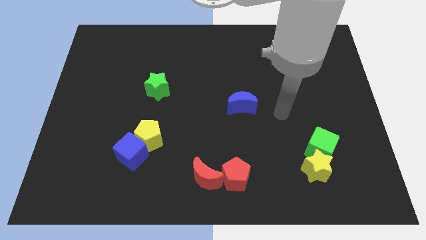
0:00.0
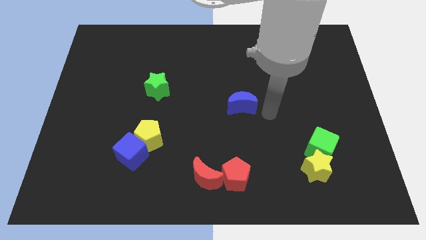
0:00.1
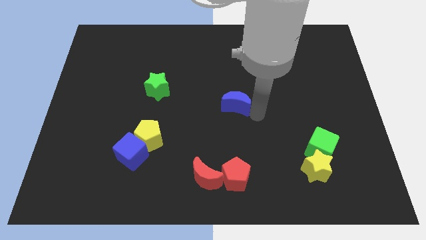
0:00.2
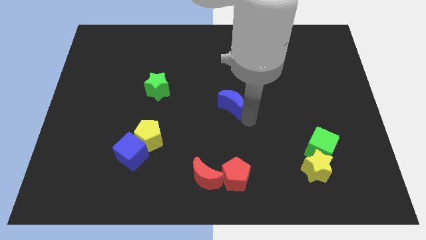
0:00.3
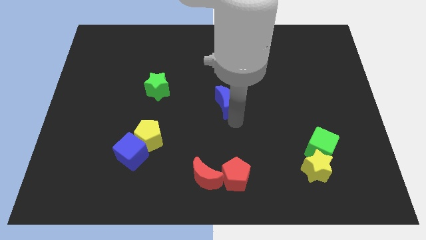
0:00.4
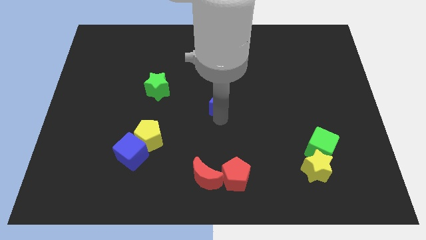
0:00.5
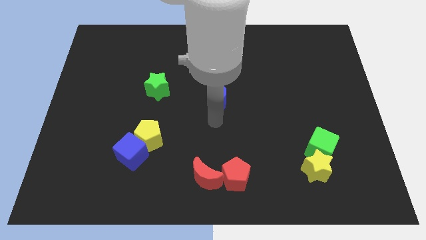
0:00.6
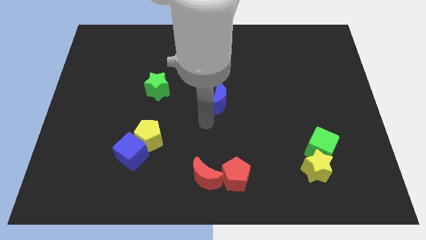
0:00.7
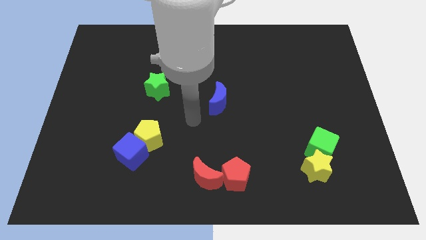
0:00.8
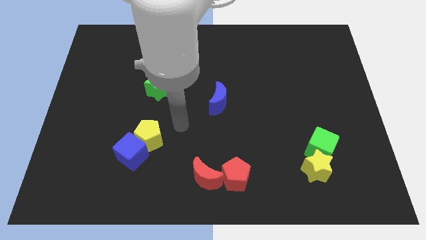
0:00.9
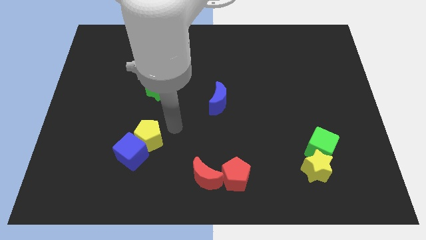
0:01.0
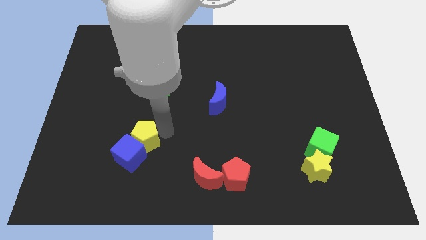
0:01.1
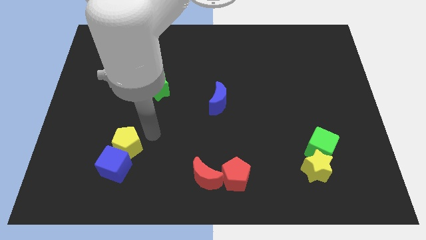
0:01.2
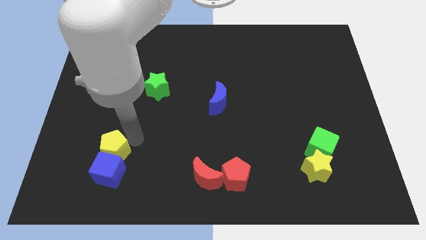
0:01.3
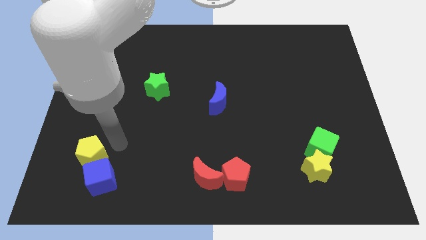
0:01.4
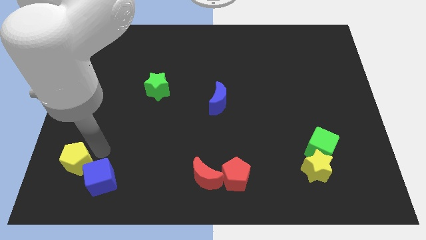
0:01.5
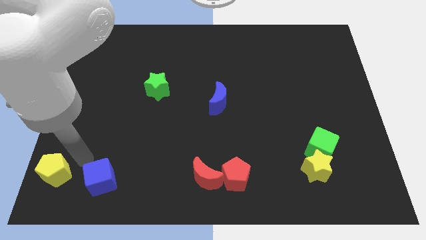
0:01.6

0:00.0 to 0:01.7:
move the blue cube away from the yellow pentagon

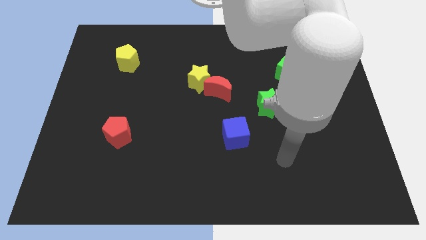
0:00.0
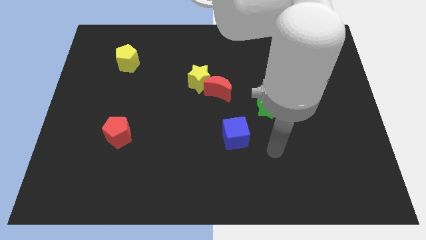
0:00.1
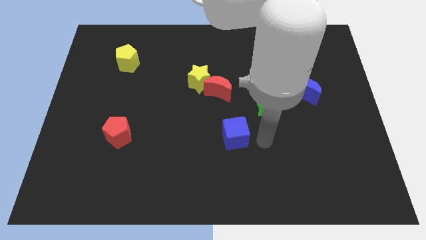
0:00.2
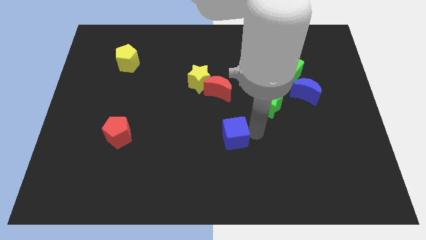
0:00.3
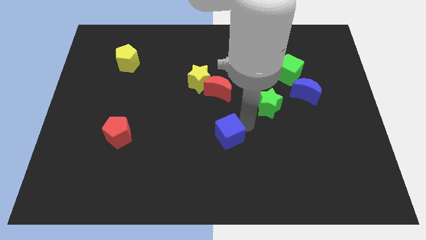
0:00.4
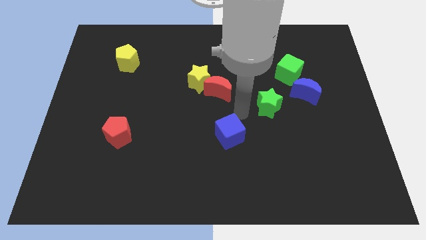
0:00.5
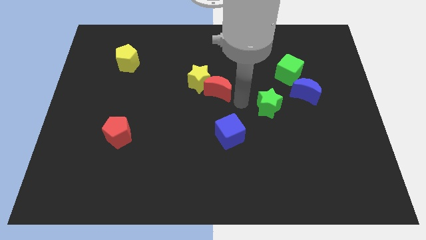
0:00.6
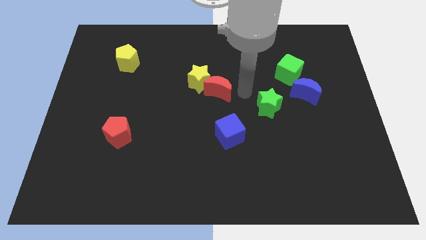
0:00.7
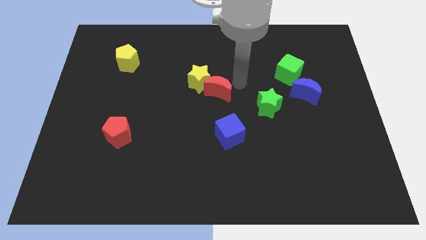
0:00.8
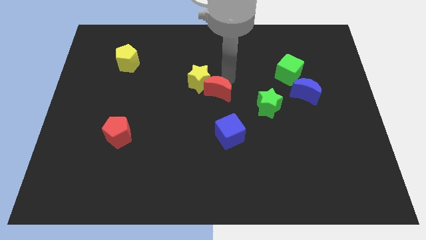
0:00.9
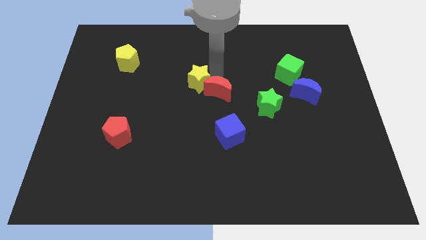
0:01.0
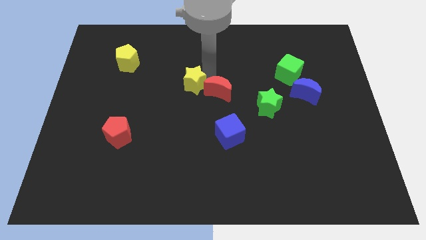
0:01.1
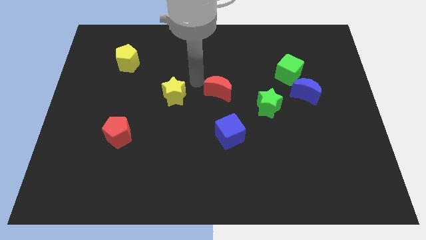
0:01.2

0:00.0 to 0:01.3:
separate the red moon from the yellow star

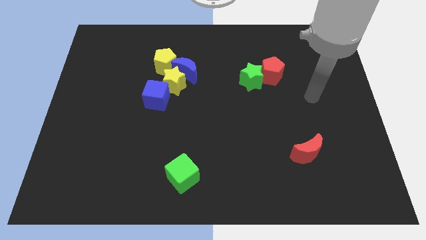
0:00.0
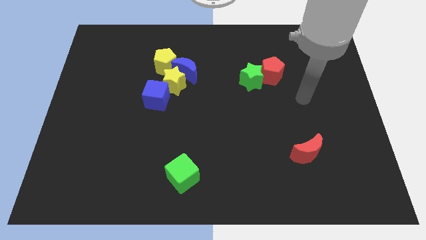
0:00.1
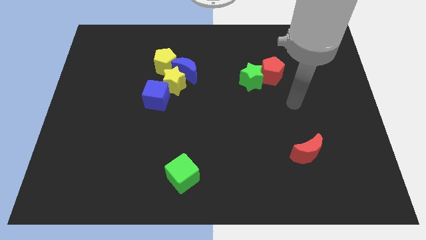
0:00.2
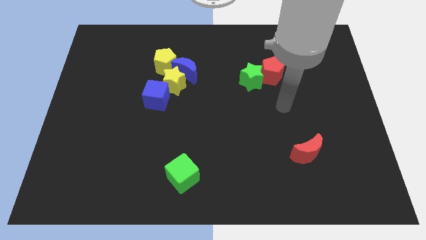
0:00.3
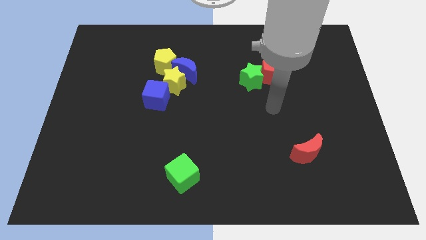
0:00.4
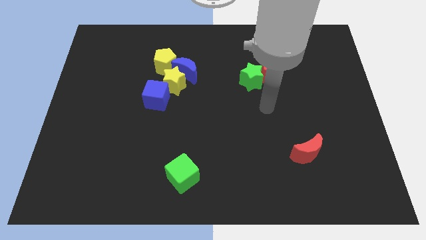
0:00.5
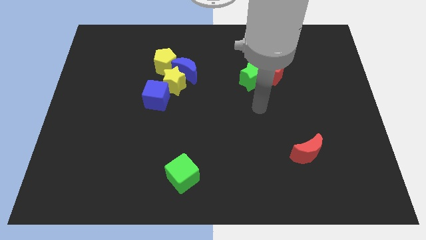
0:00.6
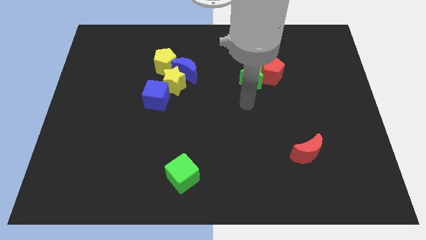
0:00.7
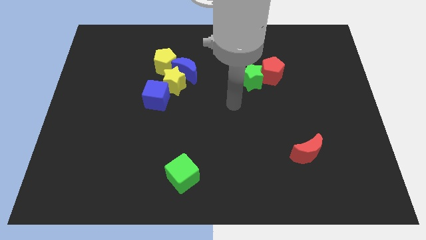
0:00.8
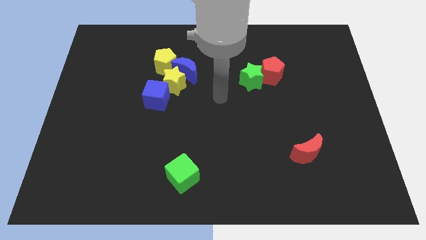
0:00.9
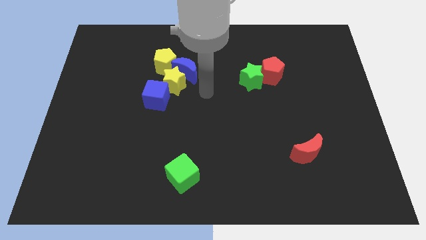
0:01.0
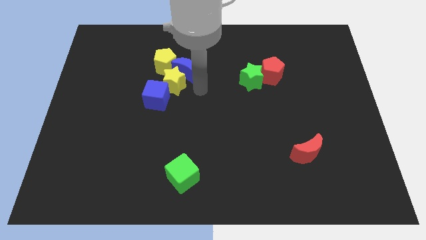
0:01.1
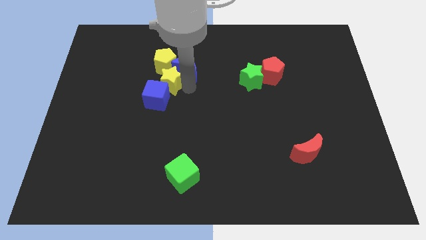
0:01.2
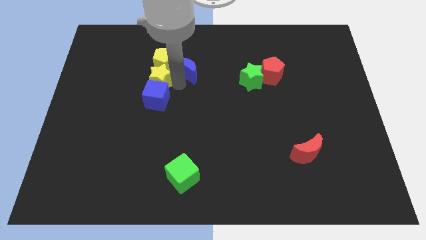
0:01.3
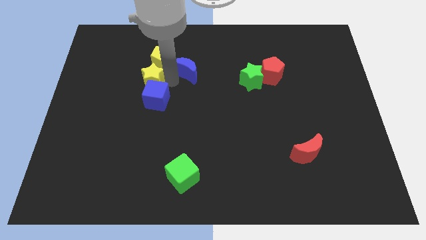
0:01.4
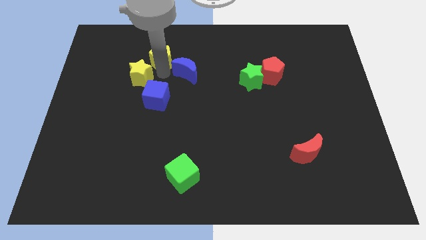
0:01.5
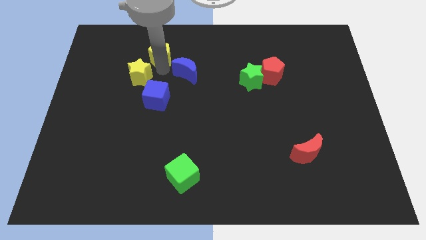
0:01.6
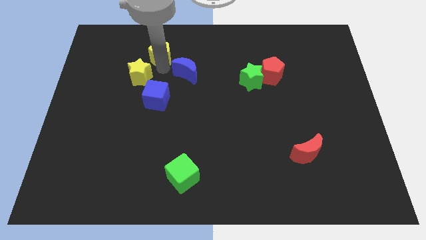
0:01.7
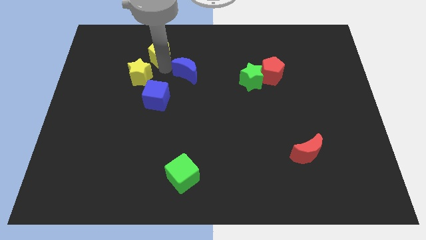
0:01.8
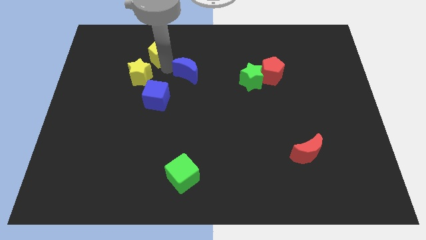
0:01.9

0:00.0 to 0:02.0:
pull the blue moon apart from the yellow star and yellow pentagon

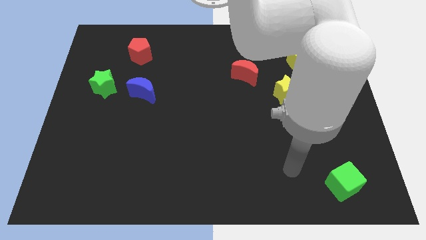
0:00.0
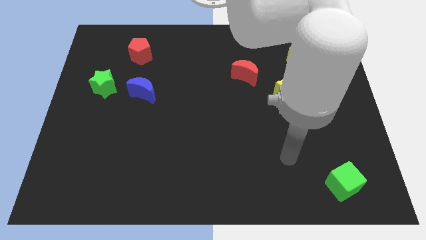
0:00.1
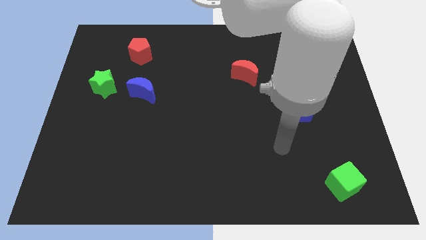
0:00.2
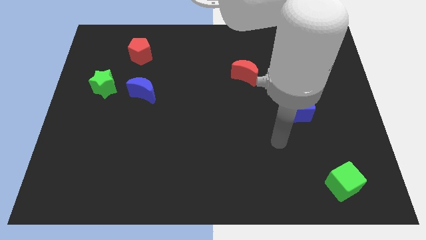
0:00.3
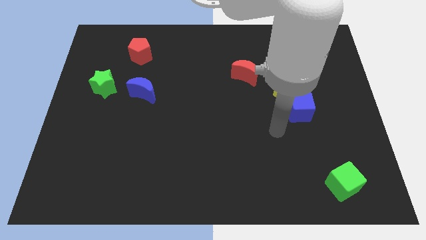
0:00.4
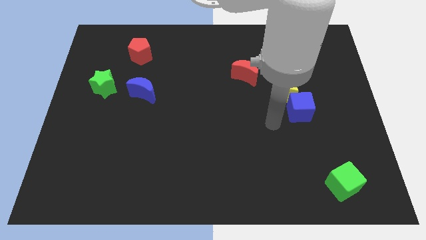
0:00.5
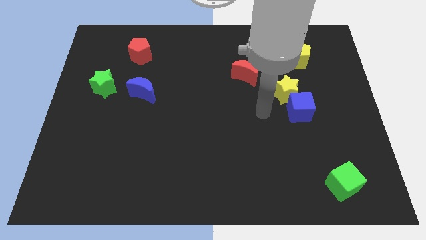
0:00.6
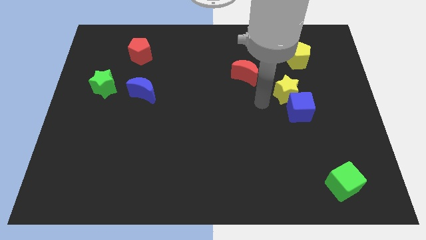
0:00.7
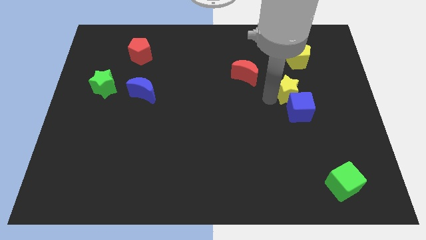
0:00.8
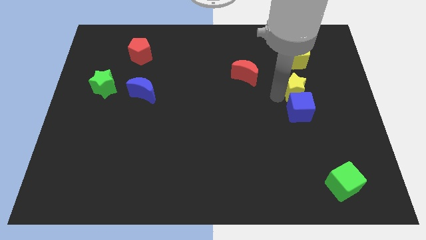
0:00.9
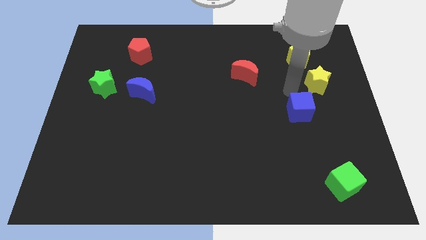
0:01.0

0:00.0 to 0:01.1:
move the blue cube away from the yellow star

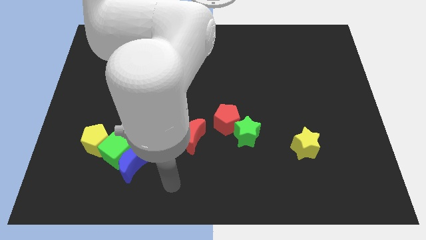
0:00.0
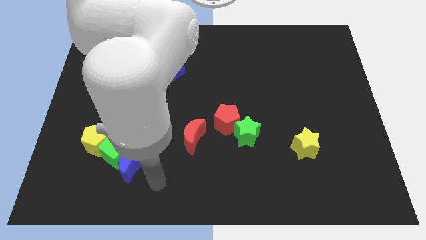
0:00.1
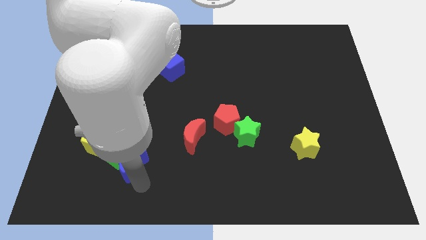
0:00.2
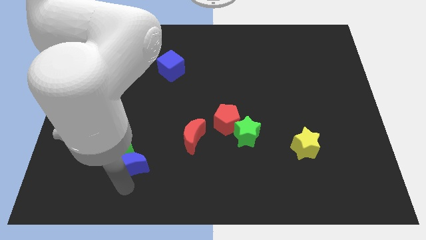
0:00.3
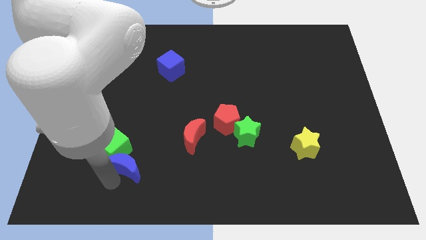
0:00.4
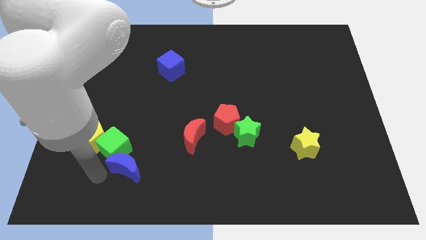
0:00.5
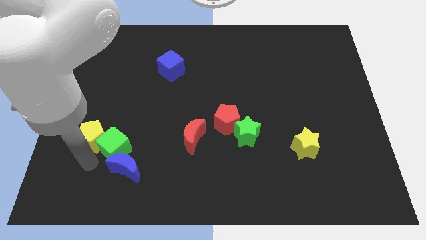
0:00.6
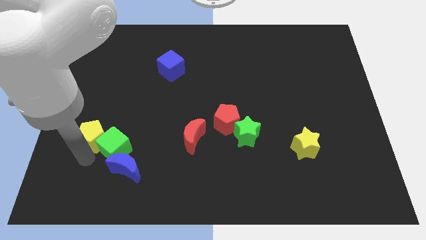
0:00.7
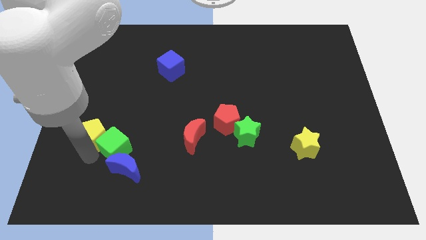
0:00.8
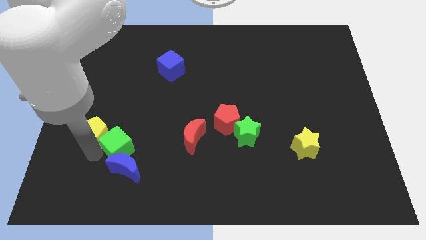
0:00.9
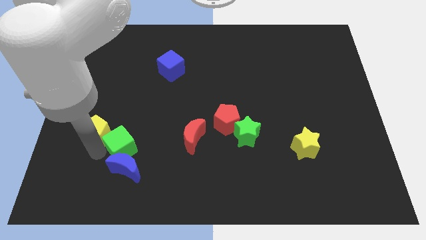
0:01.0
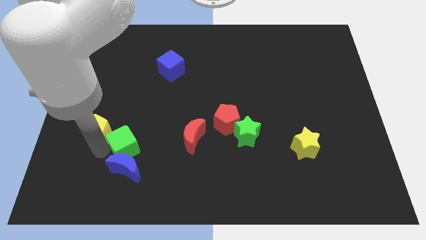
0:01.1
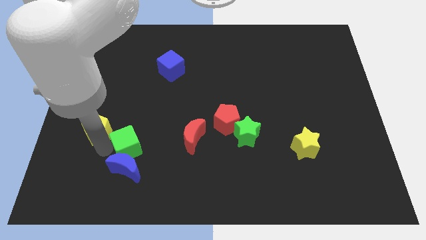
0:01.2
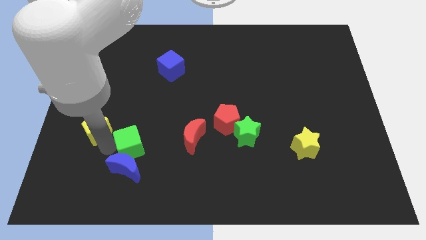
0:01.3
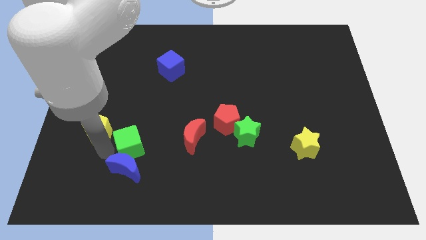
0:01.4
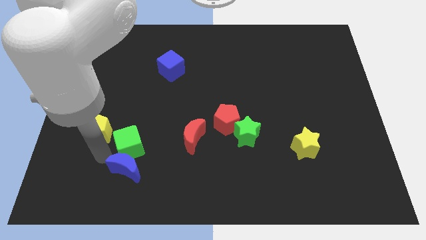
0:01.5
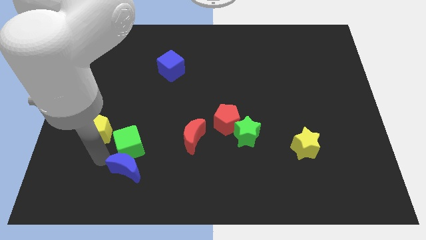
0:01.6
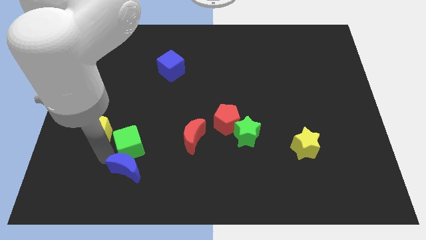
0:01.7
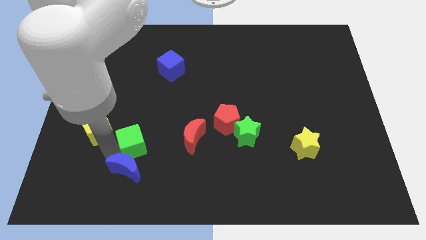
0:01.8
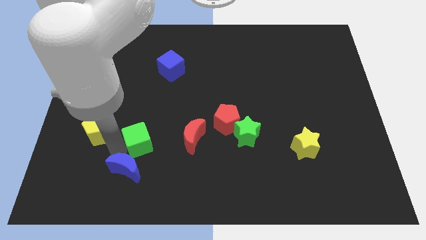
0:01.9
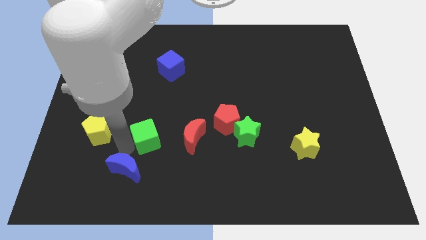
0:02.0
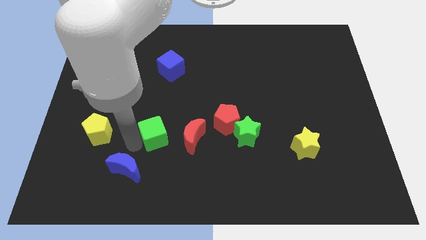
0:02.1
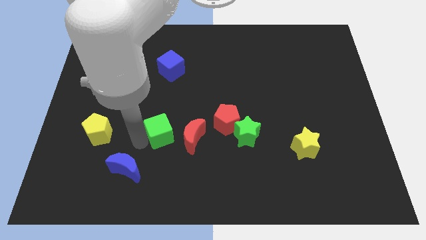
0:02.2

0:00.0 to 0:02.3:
move the green cube away from the blue moon and yellow pentagon

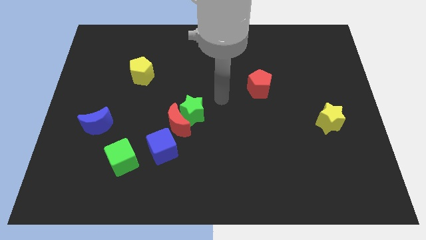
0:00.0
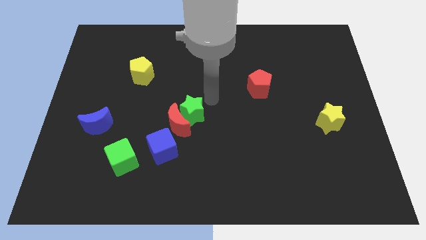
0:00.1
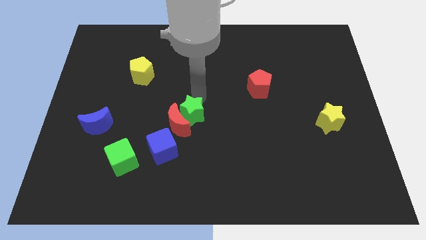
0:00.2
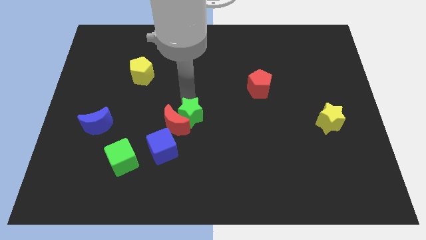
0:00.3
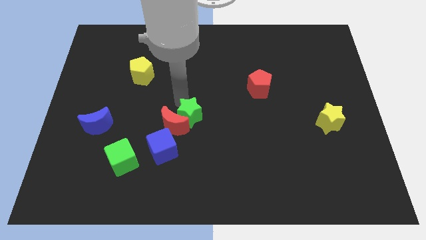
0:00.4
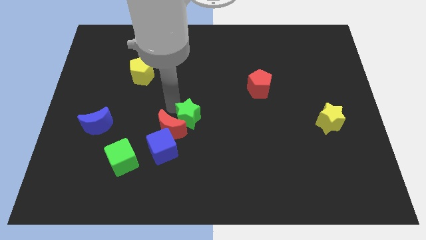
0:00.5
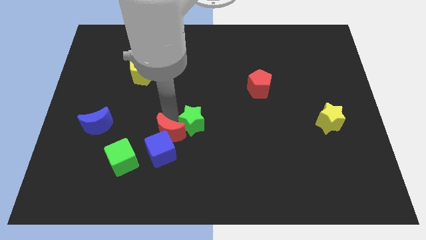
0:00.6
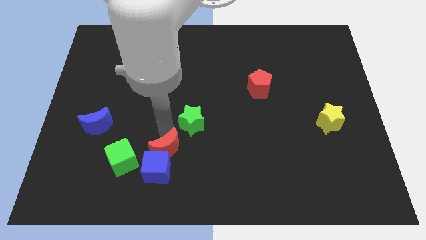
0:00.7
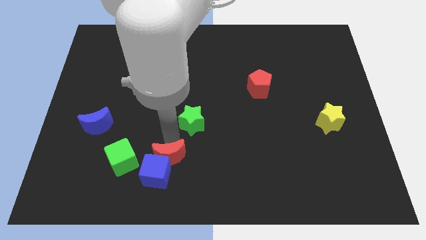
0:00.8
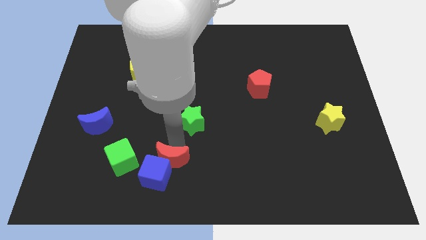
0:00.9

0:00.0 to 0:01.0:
separate the green star from the red moon
